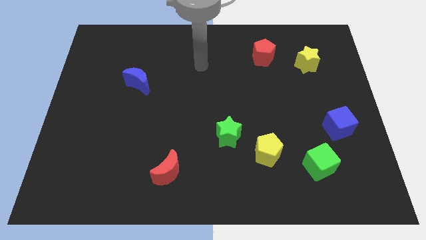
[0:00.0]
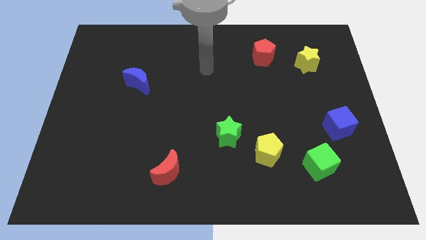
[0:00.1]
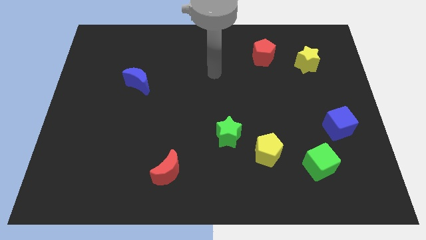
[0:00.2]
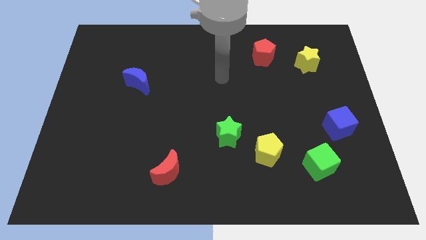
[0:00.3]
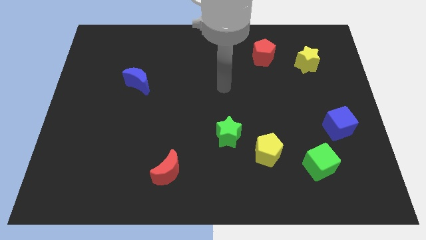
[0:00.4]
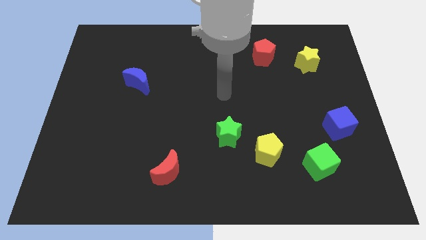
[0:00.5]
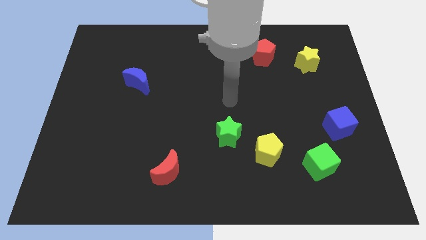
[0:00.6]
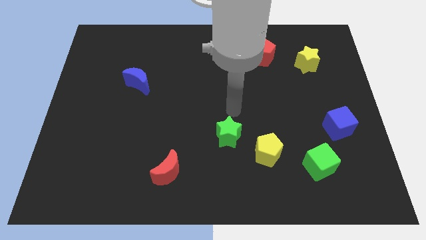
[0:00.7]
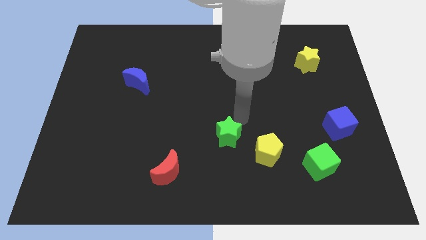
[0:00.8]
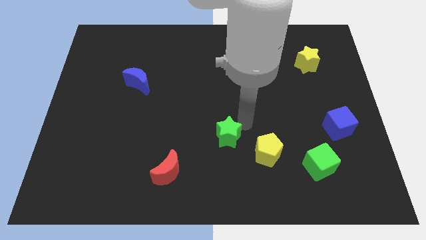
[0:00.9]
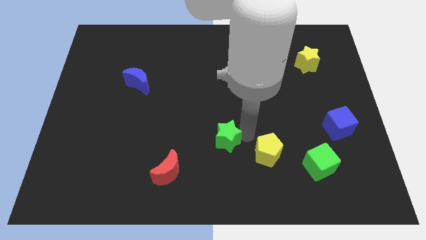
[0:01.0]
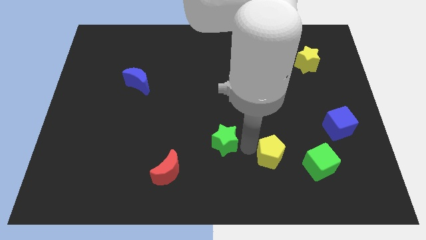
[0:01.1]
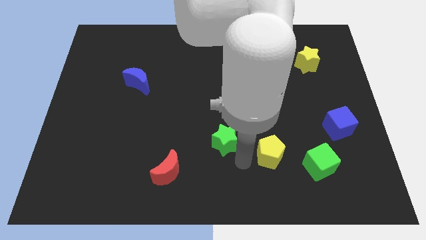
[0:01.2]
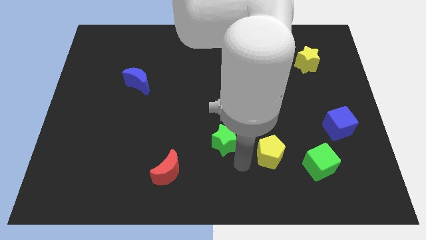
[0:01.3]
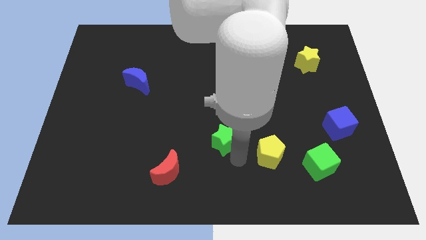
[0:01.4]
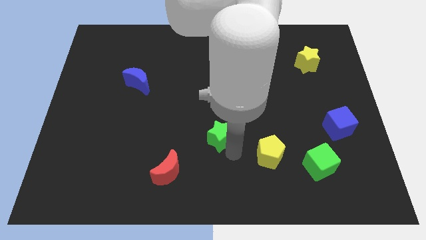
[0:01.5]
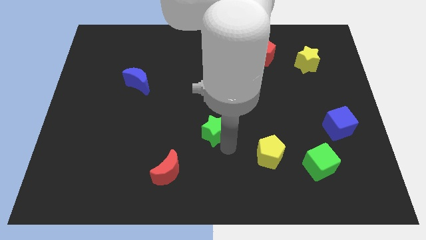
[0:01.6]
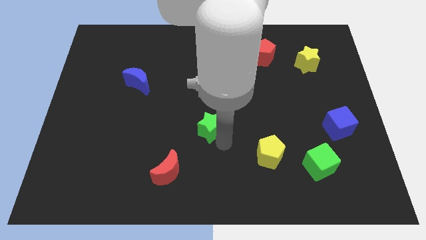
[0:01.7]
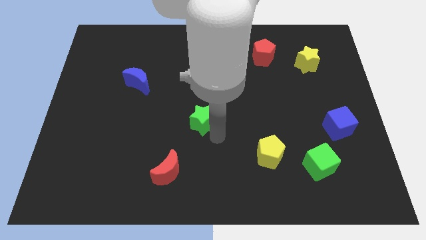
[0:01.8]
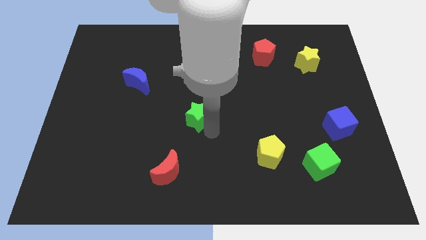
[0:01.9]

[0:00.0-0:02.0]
slide the green star up and then left a bit

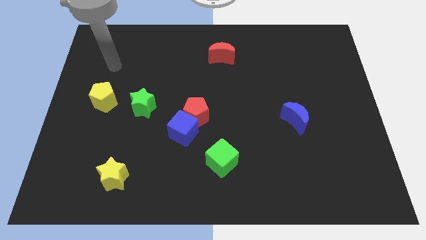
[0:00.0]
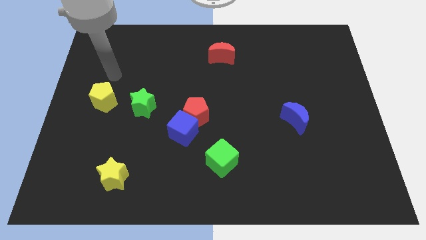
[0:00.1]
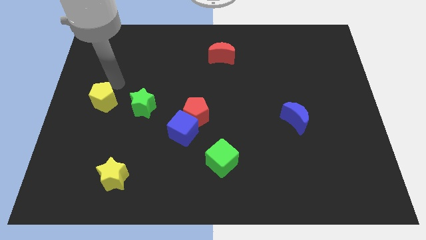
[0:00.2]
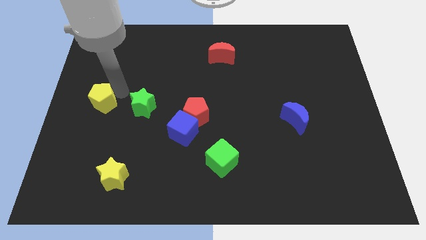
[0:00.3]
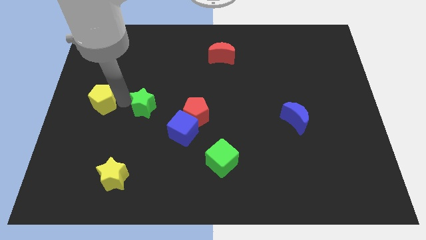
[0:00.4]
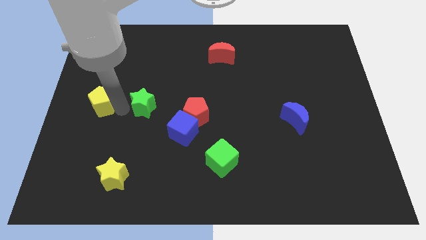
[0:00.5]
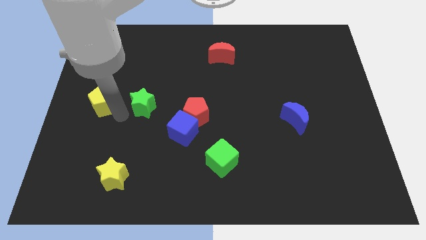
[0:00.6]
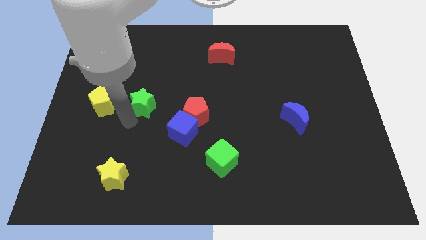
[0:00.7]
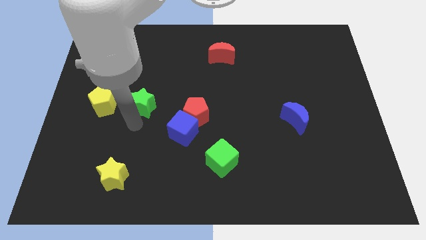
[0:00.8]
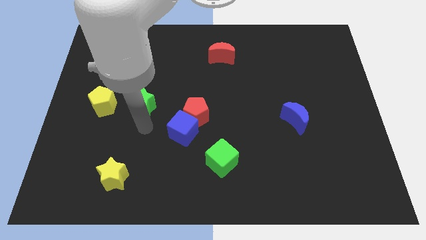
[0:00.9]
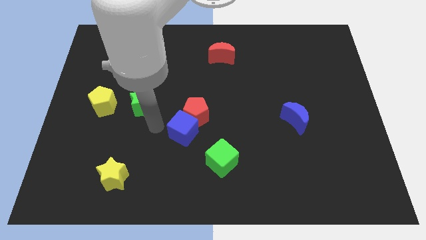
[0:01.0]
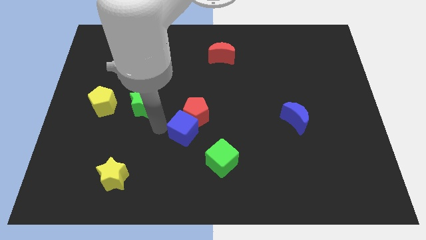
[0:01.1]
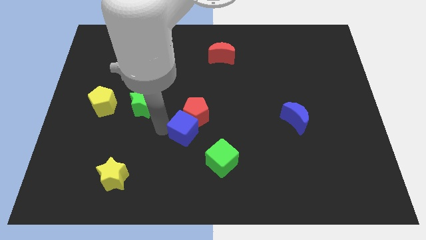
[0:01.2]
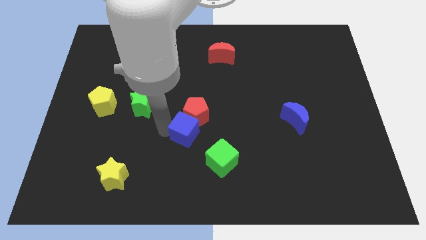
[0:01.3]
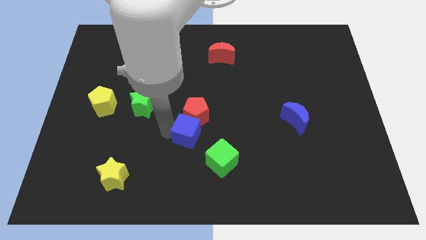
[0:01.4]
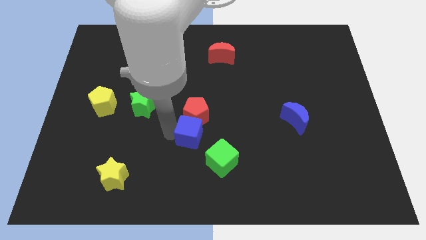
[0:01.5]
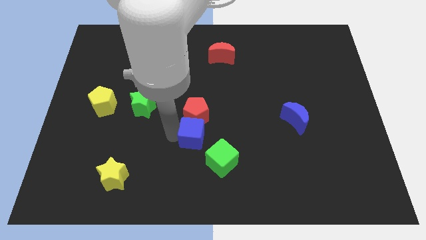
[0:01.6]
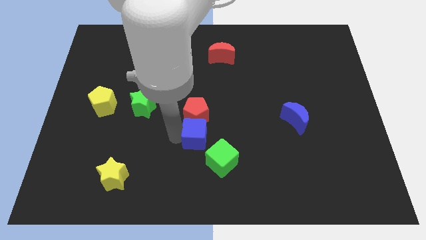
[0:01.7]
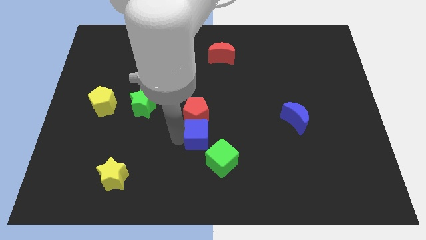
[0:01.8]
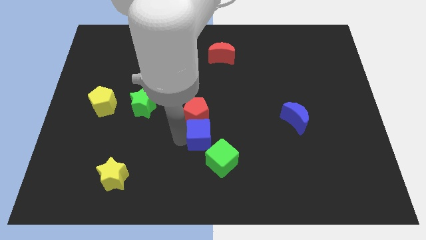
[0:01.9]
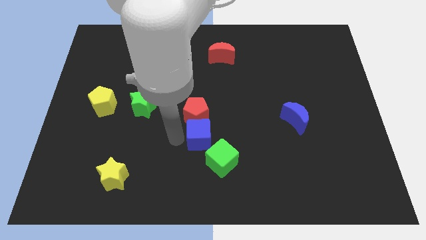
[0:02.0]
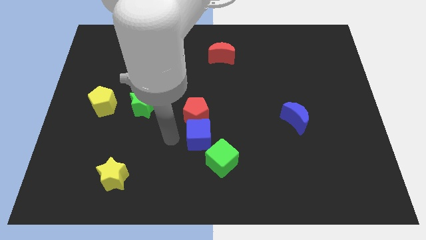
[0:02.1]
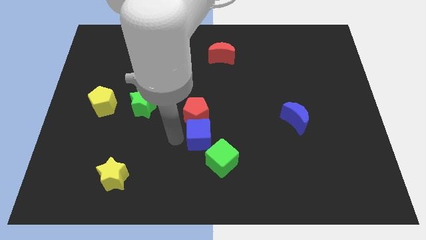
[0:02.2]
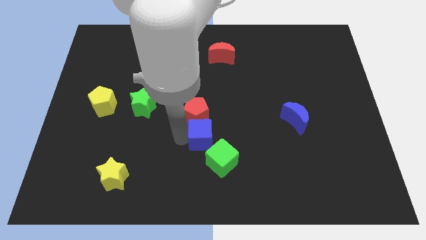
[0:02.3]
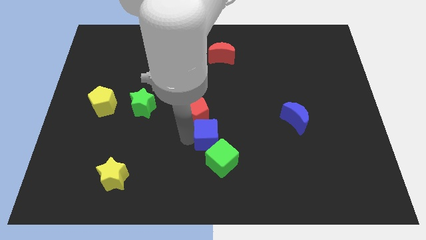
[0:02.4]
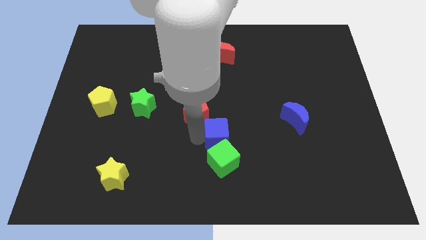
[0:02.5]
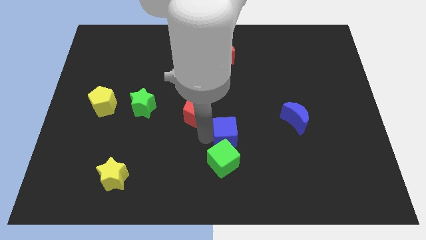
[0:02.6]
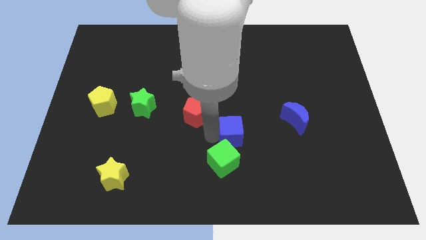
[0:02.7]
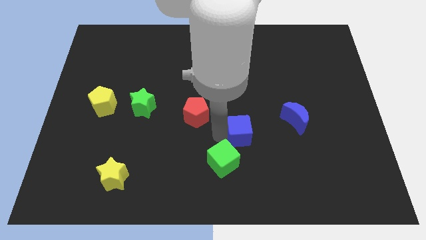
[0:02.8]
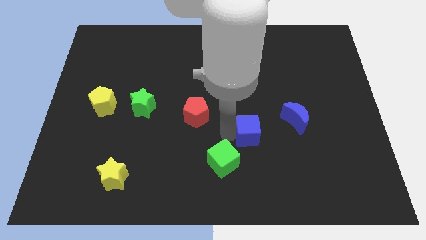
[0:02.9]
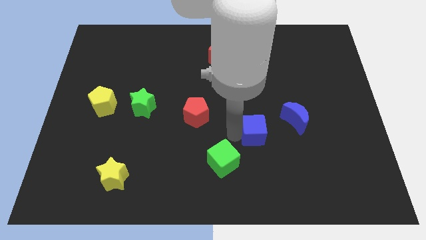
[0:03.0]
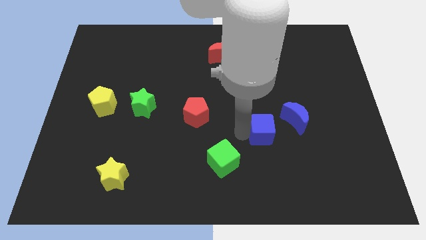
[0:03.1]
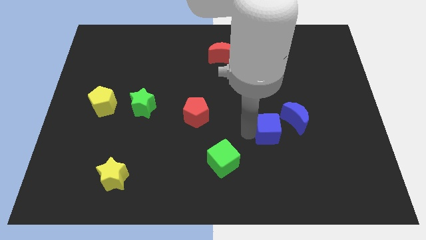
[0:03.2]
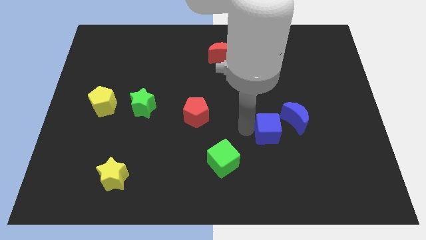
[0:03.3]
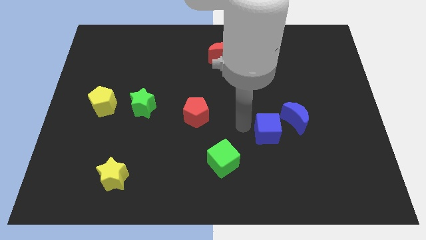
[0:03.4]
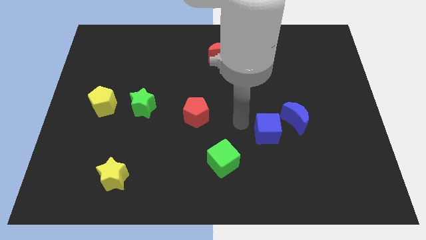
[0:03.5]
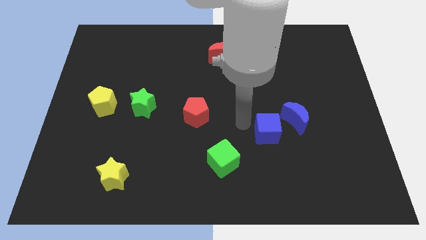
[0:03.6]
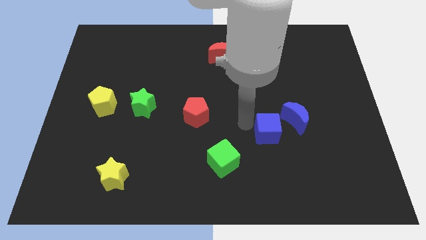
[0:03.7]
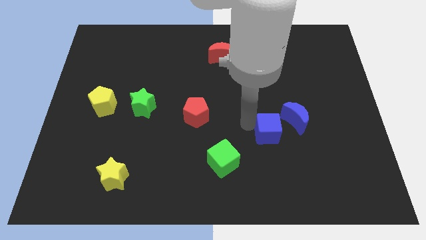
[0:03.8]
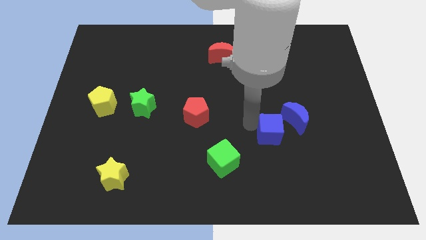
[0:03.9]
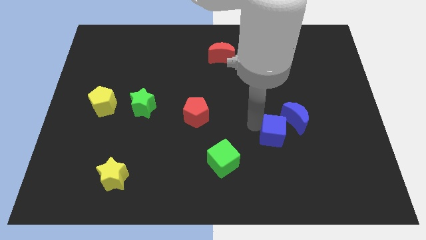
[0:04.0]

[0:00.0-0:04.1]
push the blue cube right

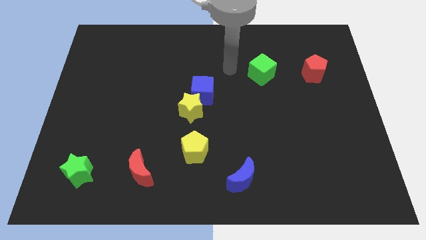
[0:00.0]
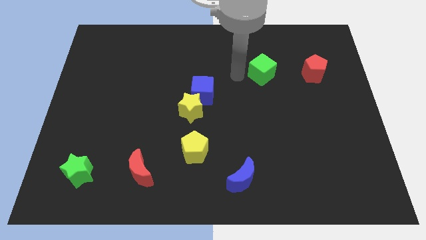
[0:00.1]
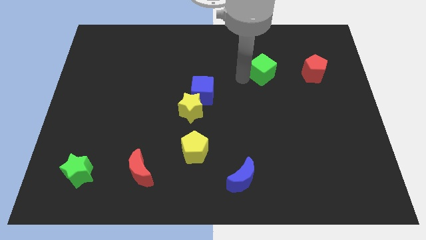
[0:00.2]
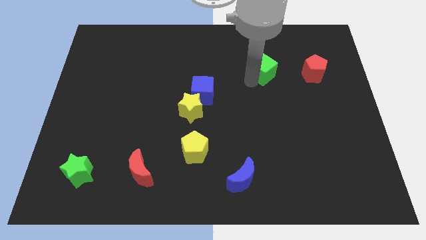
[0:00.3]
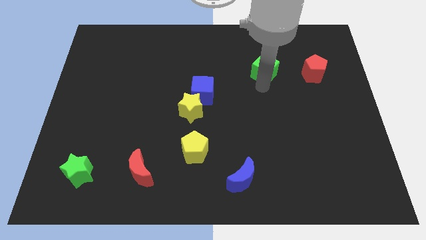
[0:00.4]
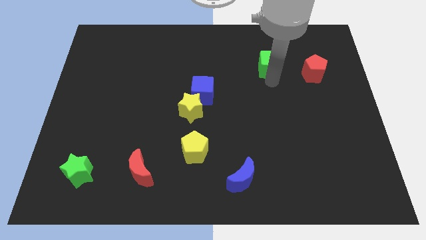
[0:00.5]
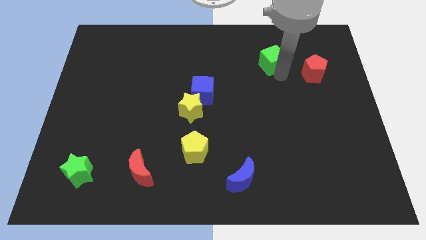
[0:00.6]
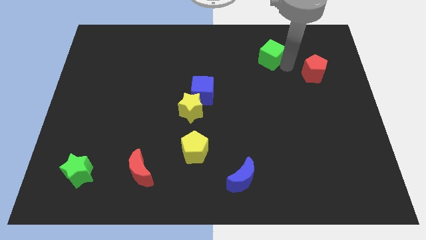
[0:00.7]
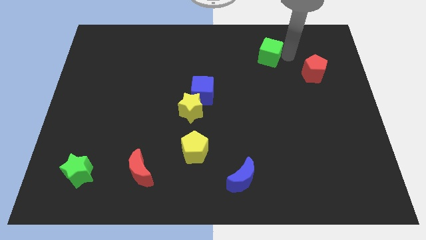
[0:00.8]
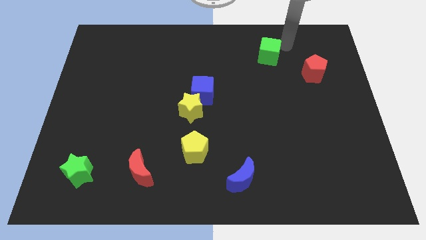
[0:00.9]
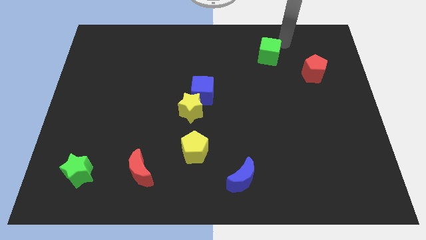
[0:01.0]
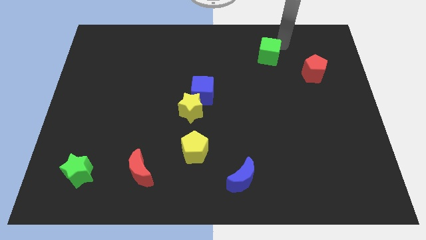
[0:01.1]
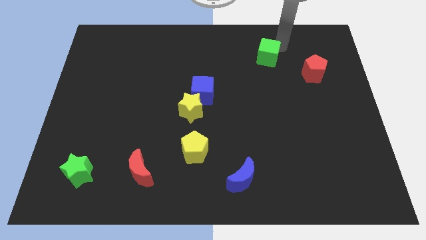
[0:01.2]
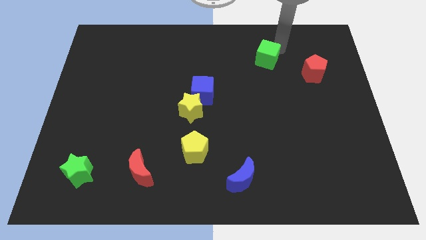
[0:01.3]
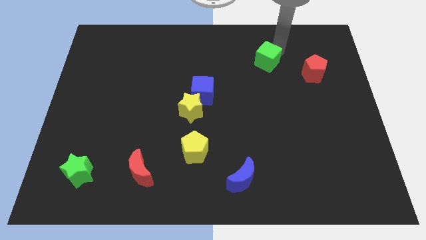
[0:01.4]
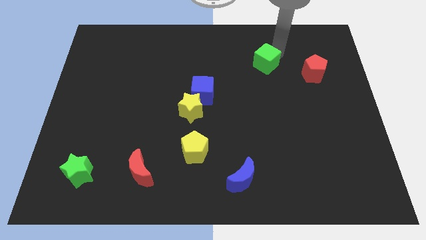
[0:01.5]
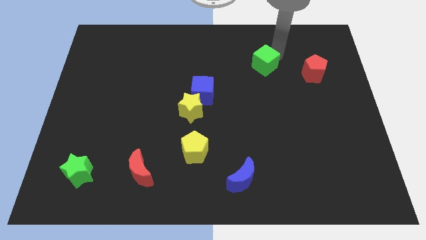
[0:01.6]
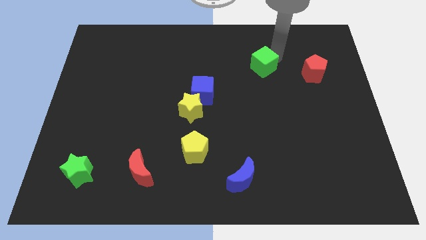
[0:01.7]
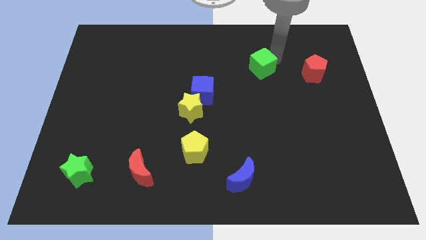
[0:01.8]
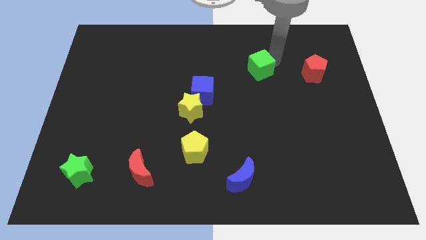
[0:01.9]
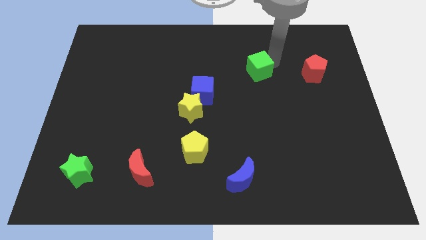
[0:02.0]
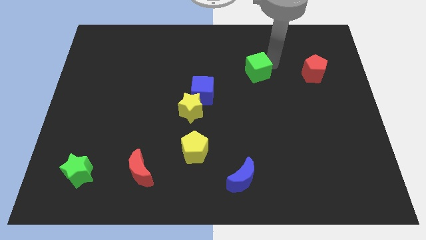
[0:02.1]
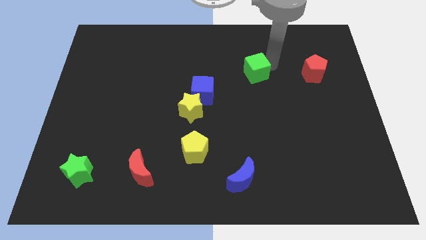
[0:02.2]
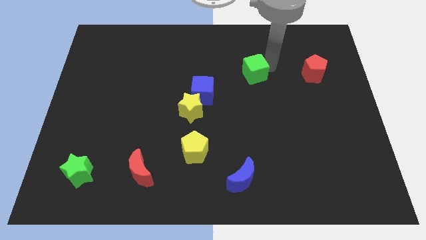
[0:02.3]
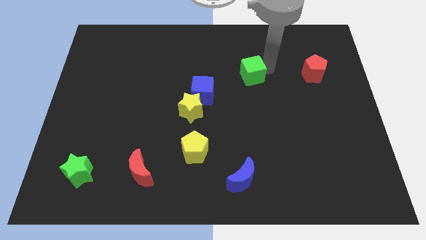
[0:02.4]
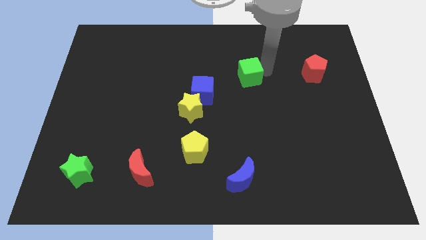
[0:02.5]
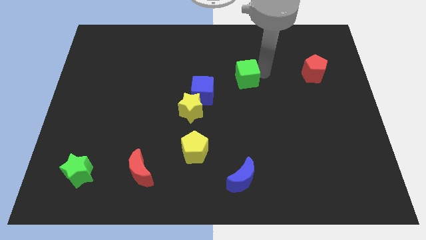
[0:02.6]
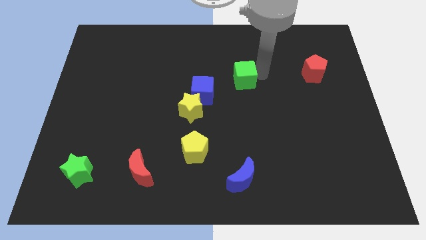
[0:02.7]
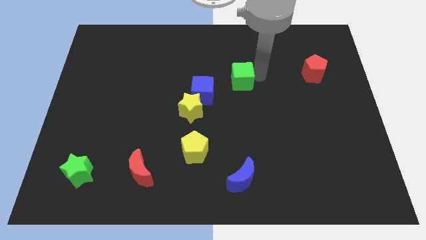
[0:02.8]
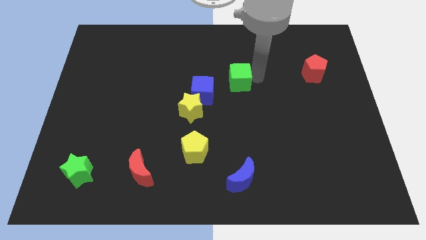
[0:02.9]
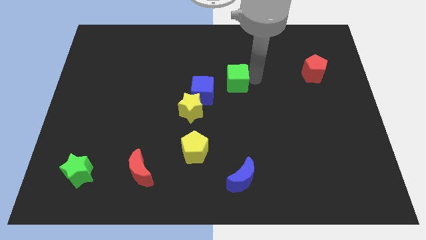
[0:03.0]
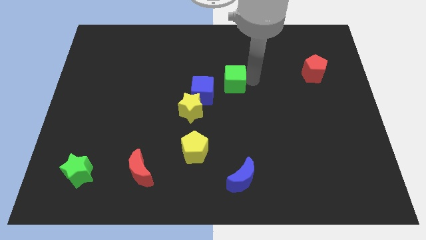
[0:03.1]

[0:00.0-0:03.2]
push the green cube a little left
